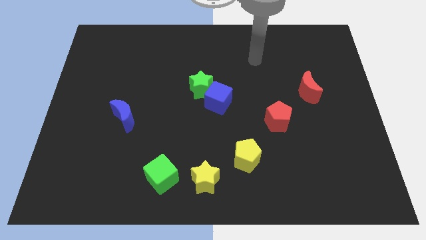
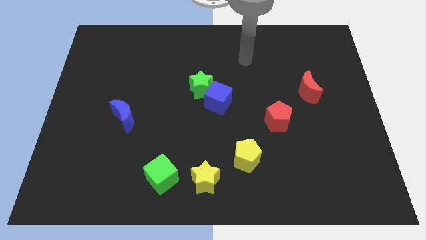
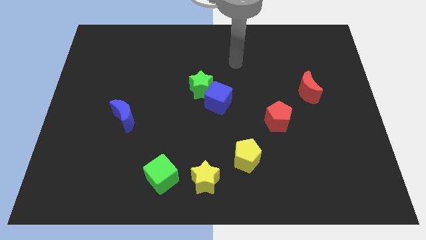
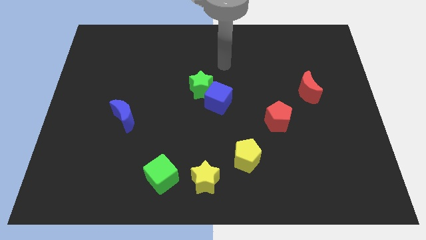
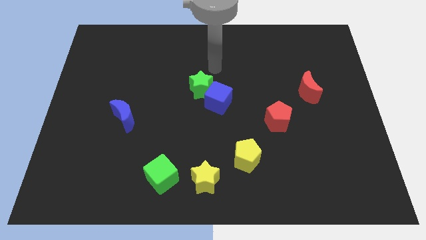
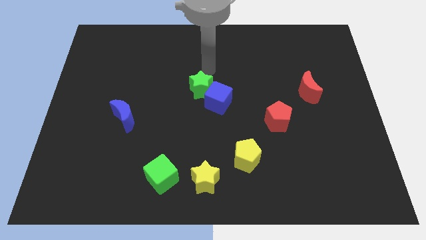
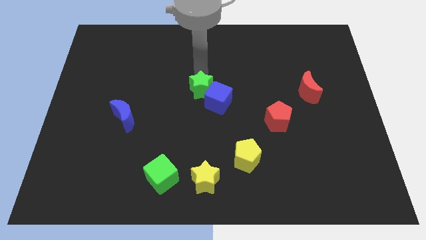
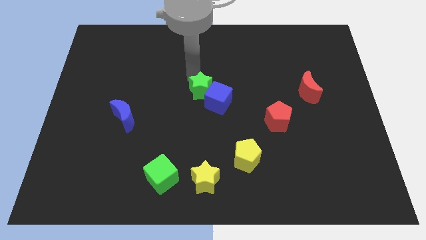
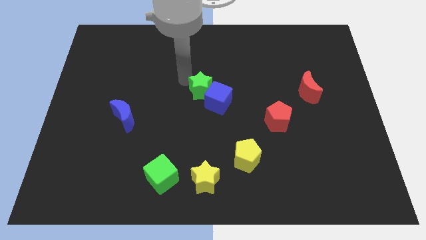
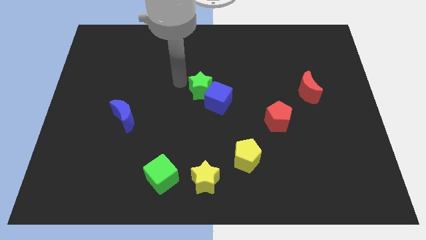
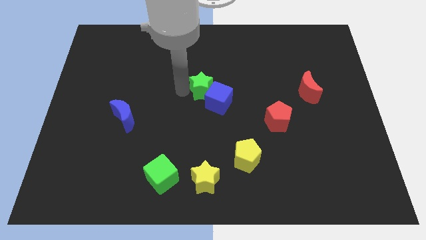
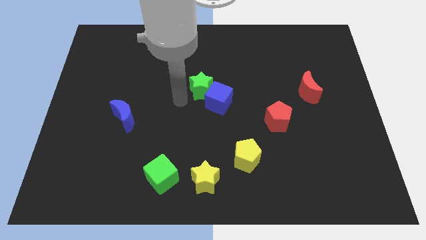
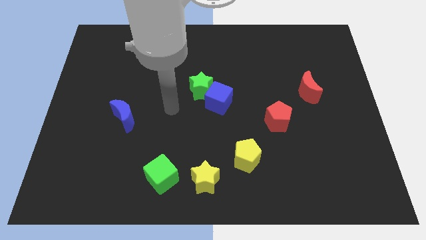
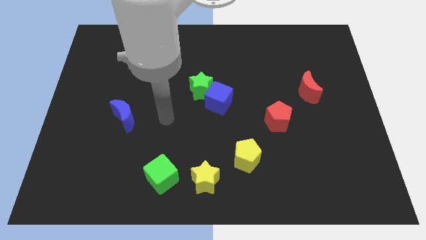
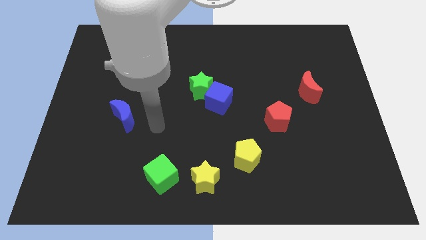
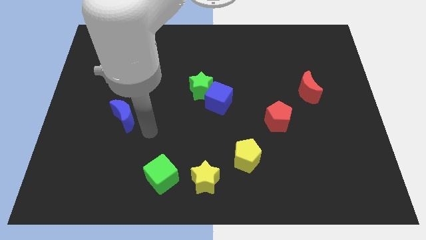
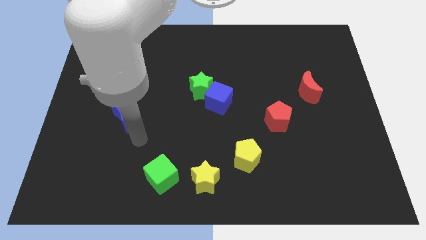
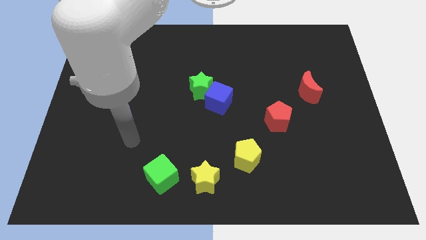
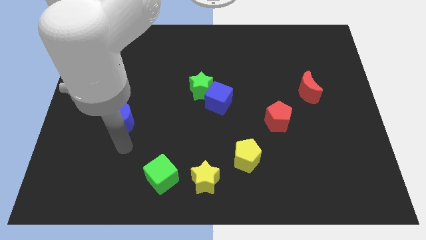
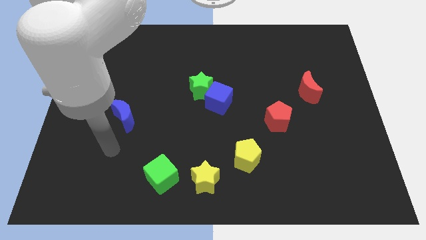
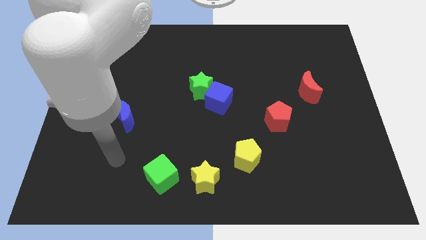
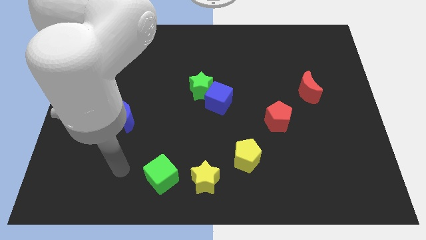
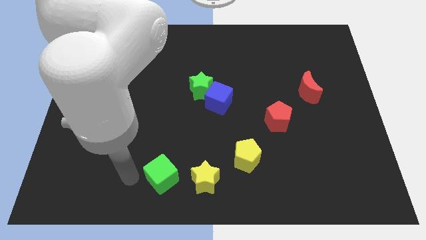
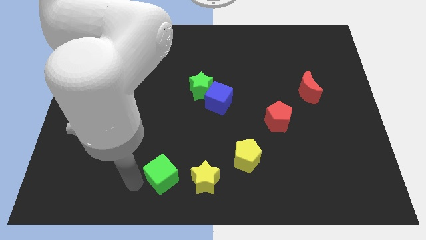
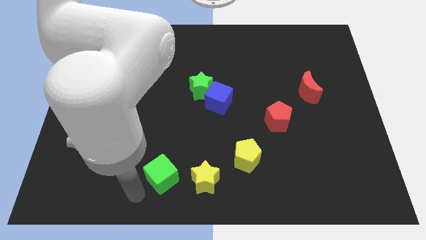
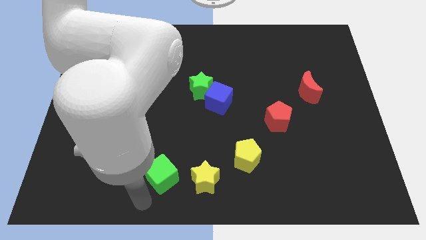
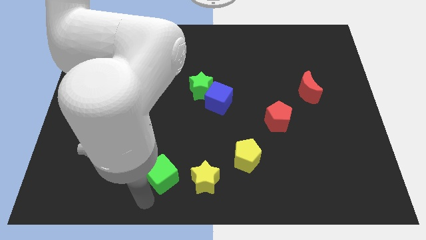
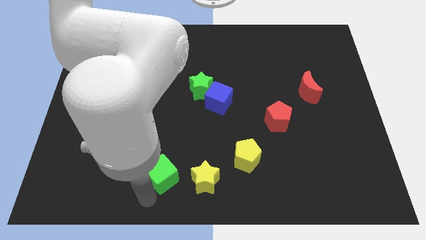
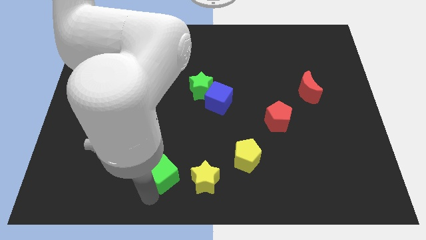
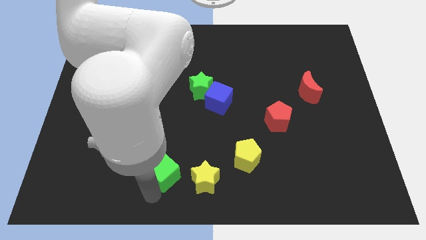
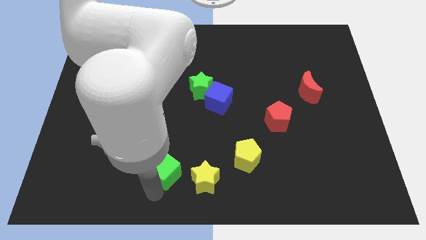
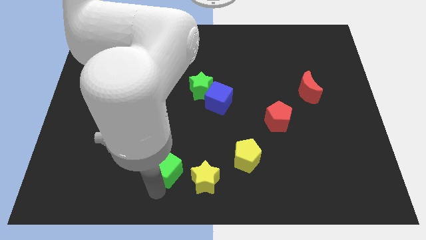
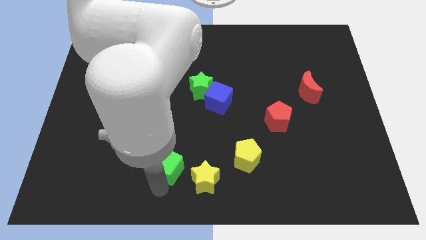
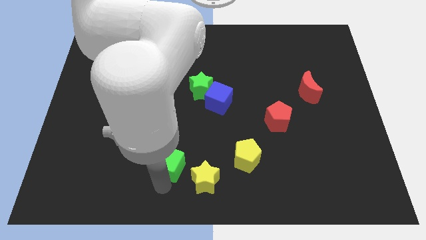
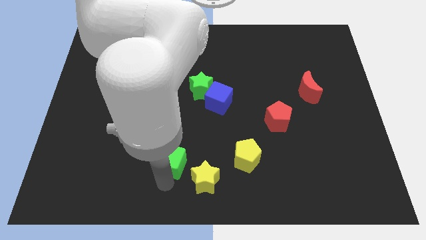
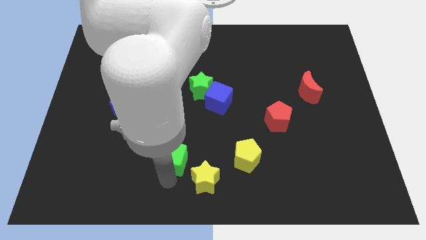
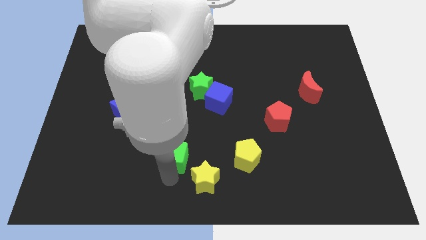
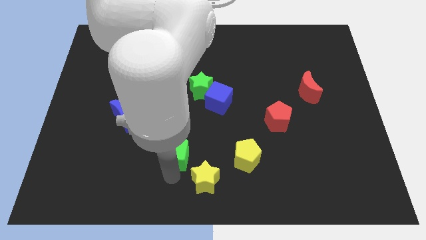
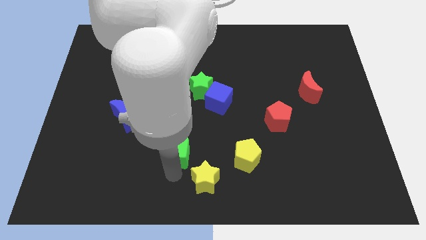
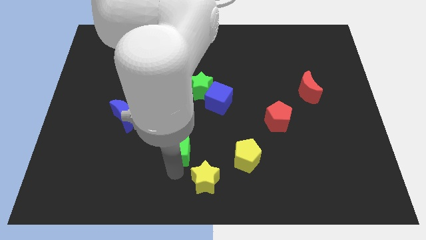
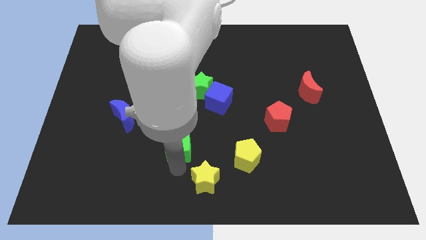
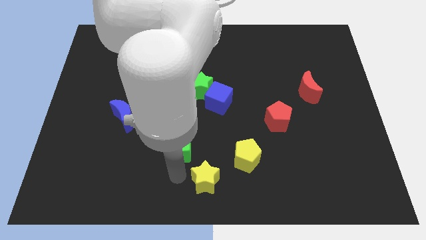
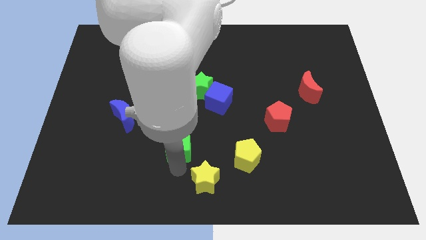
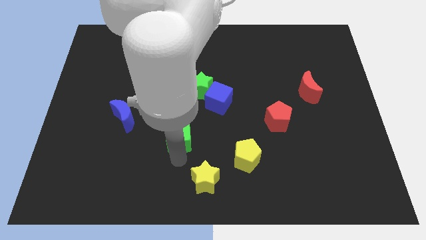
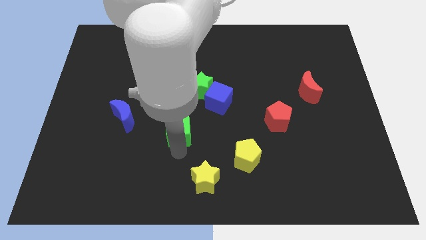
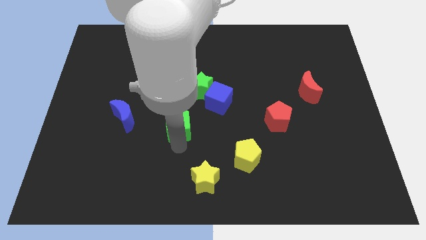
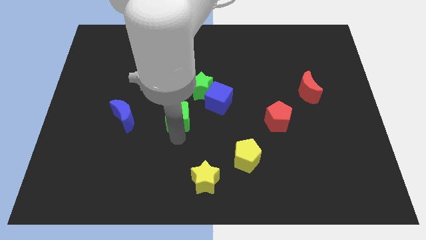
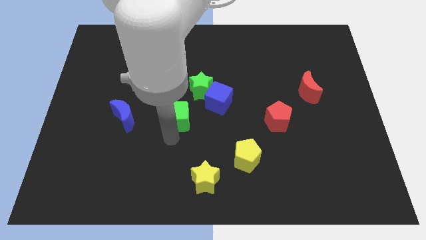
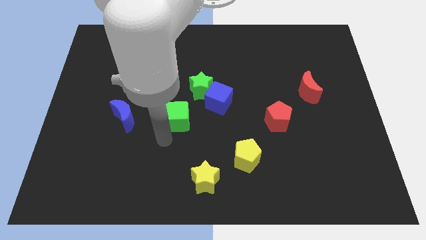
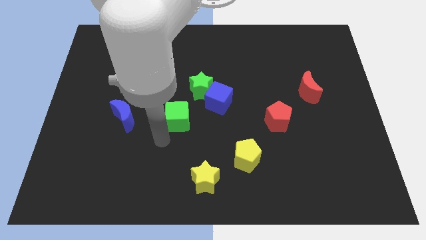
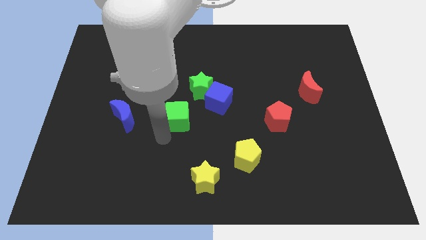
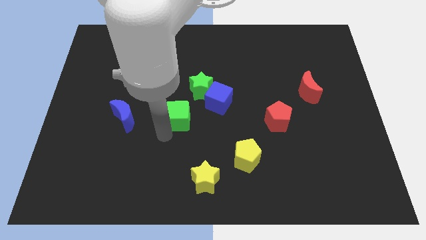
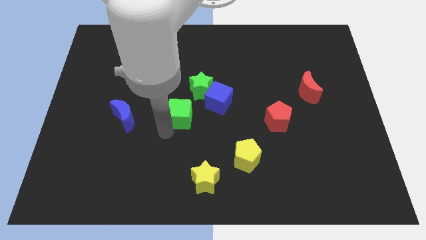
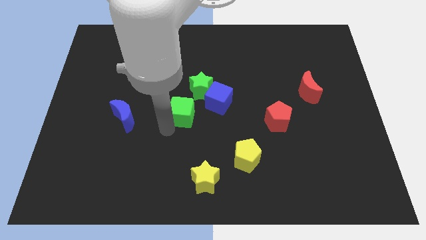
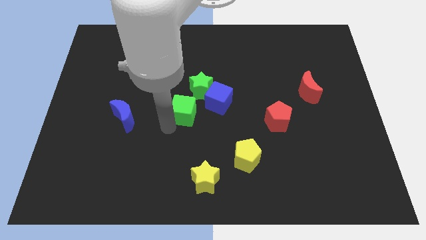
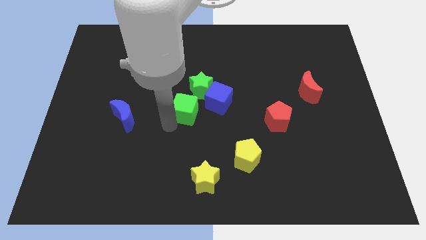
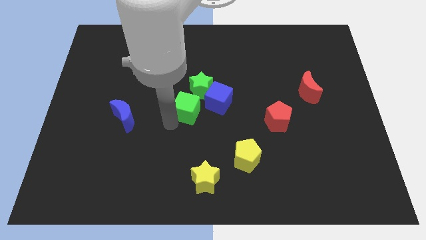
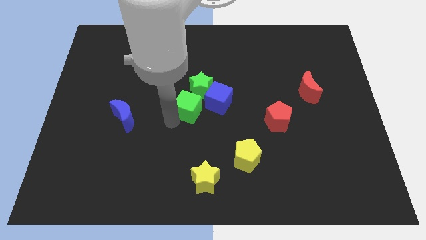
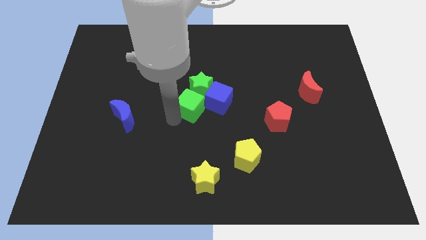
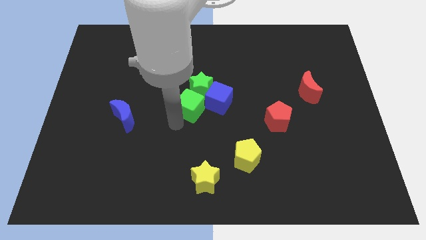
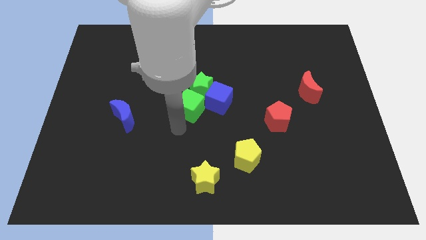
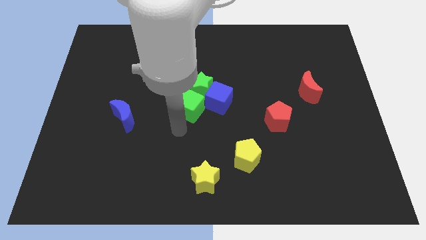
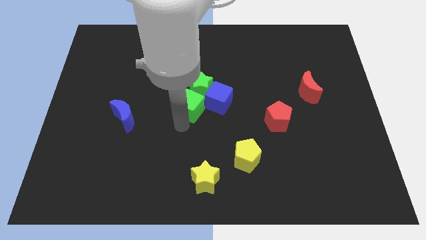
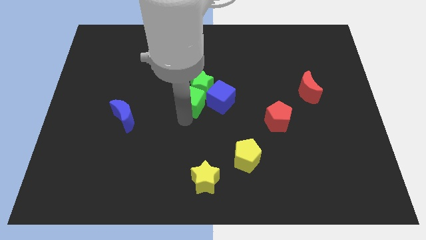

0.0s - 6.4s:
move the green cube towards the green star

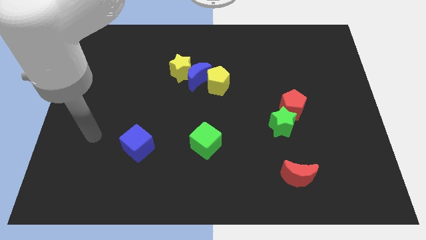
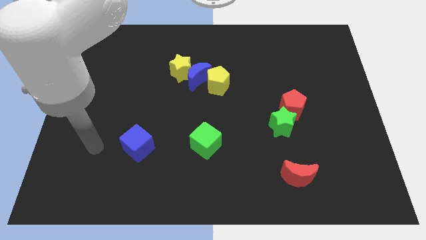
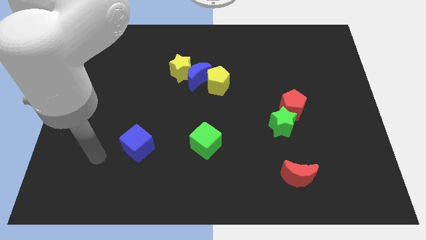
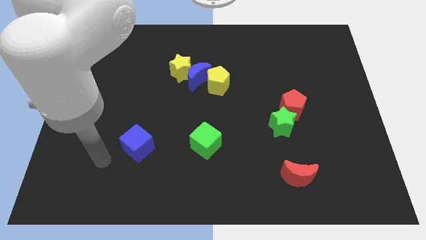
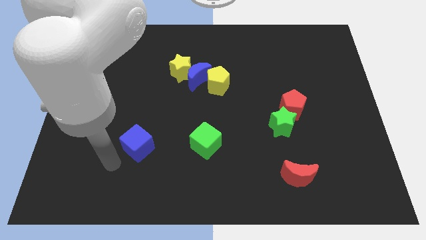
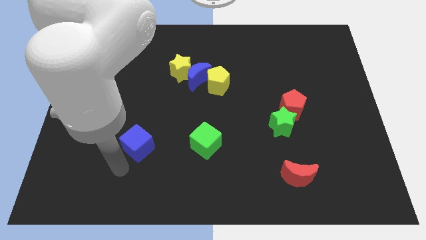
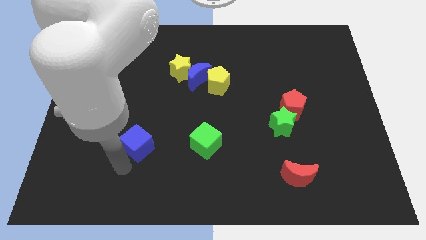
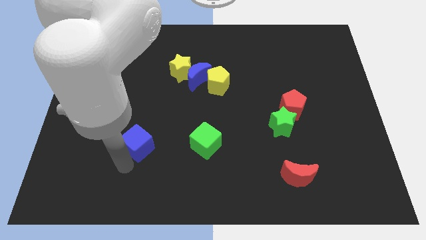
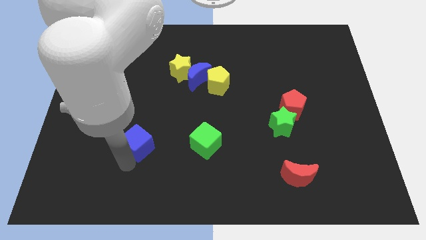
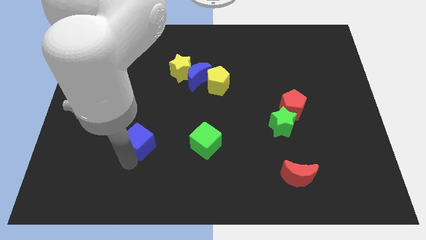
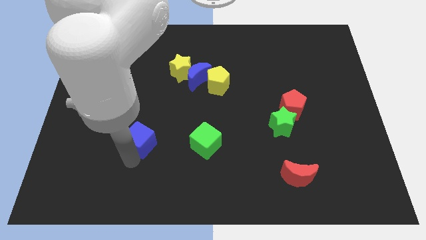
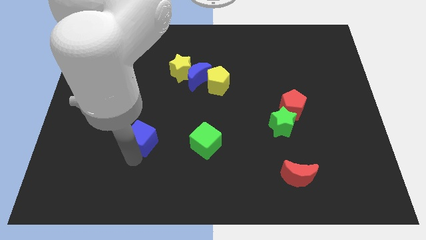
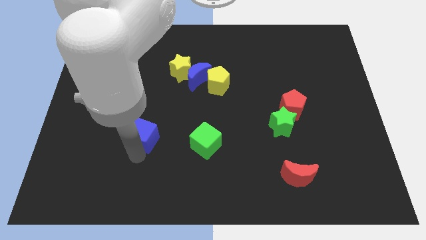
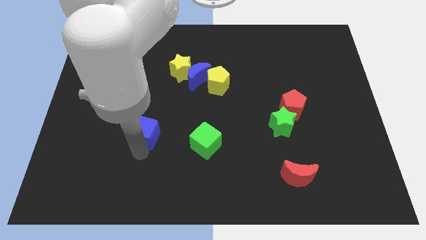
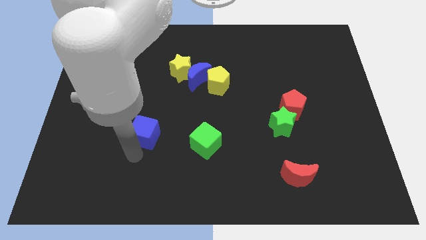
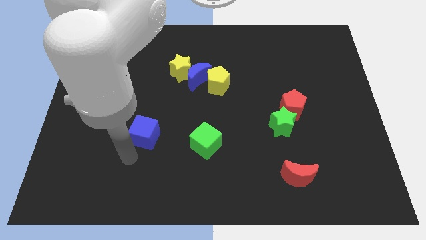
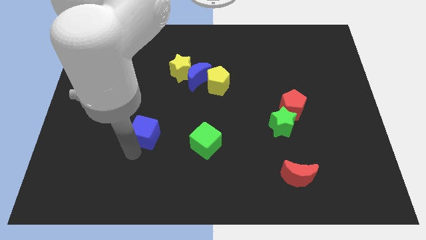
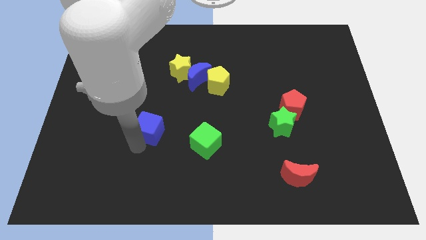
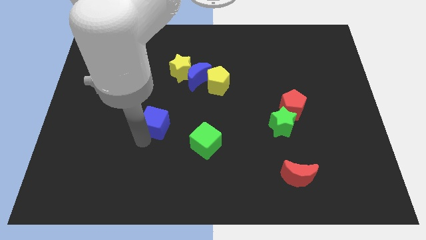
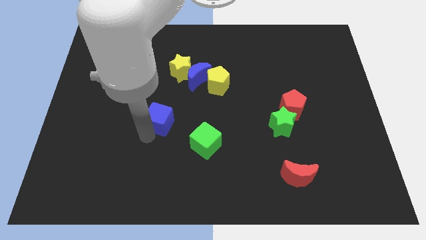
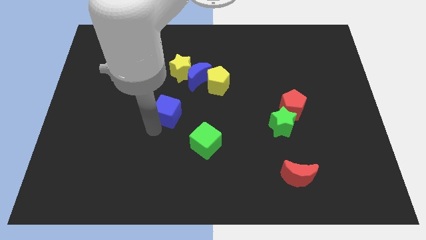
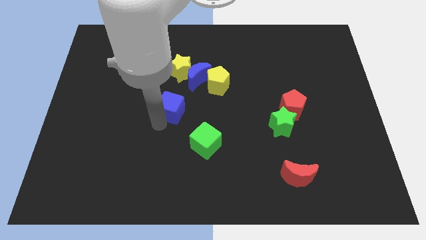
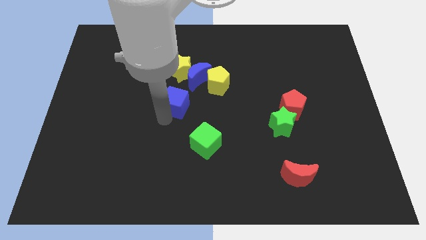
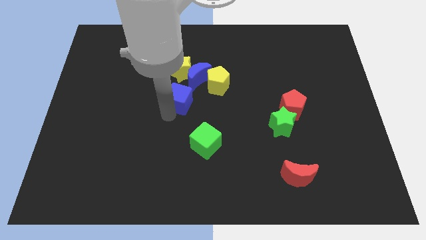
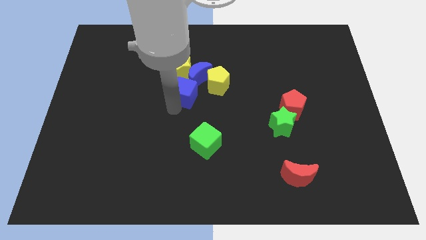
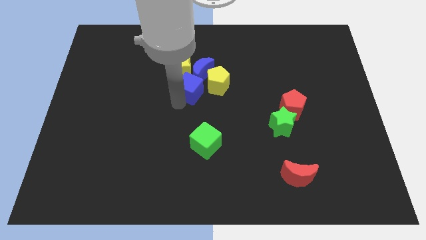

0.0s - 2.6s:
put the blue cube next to the blue moon
